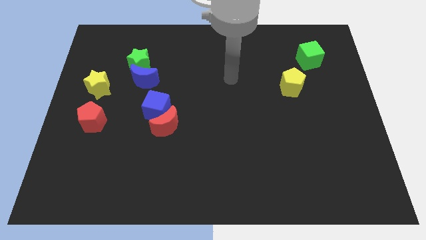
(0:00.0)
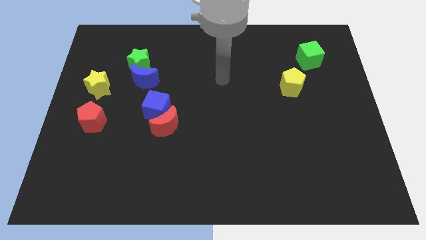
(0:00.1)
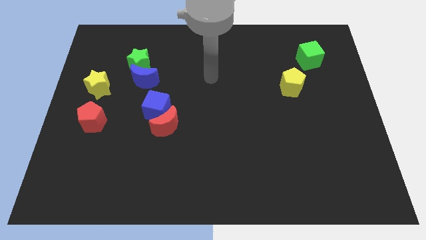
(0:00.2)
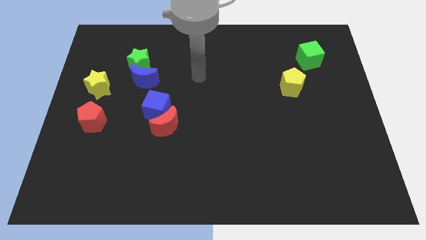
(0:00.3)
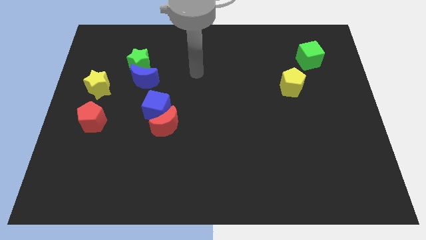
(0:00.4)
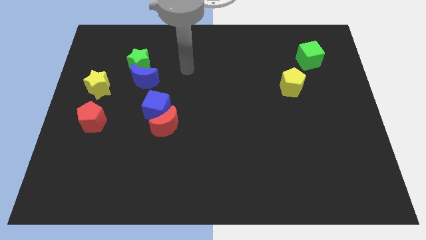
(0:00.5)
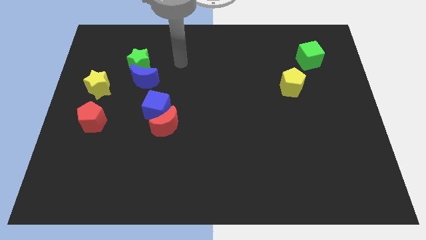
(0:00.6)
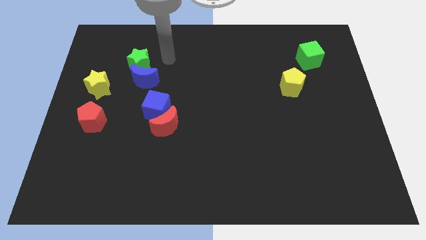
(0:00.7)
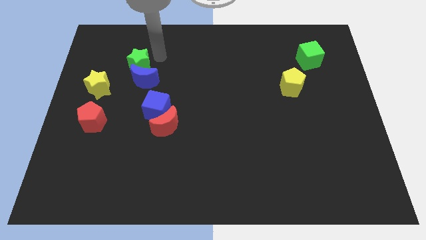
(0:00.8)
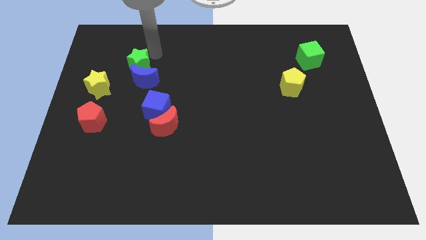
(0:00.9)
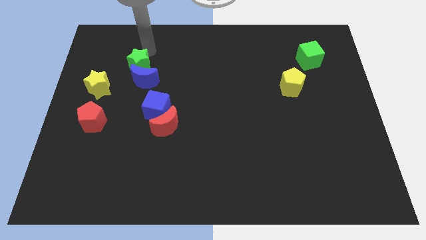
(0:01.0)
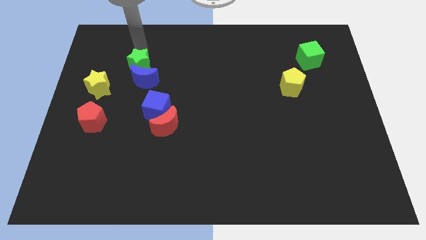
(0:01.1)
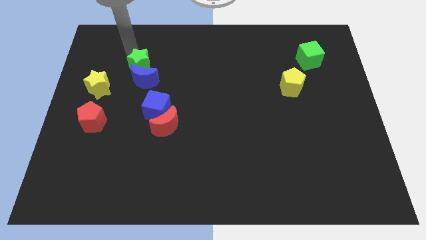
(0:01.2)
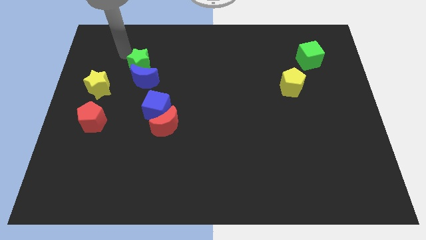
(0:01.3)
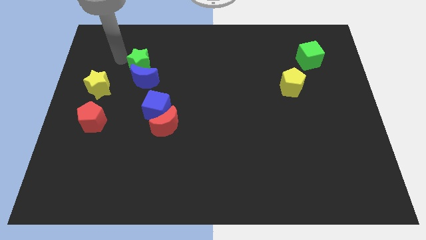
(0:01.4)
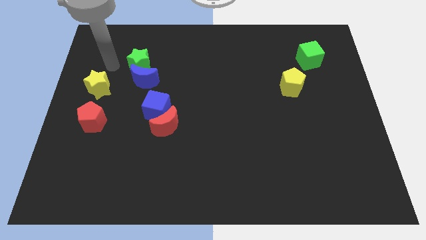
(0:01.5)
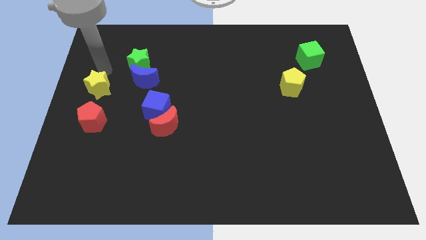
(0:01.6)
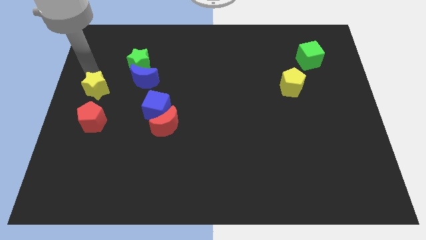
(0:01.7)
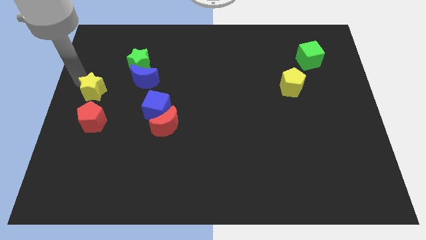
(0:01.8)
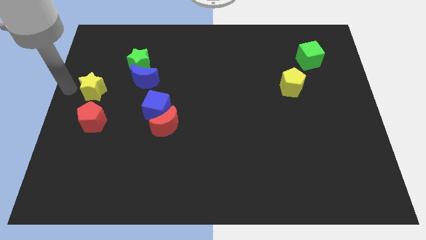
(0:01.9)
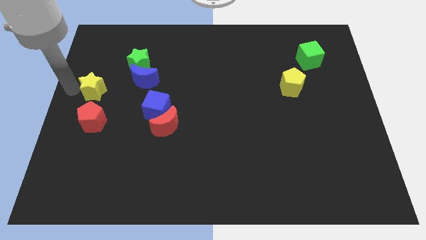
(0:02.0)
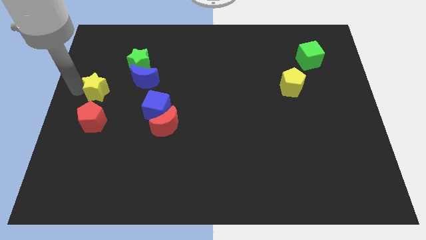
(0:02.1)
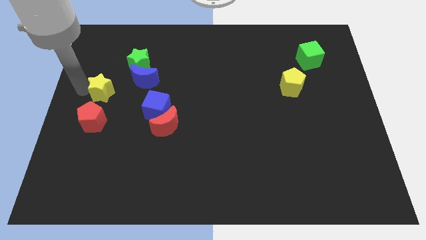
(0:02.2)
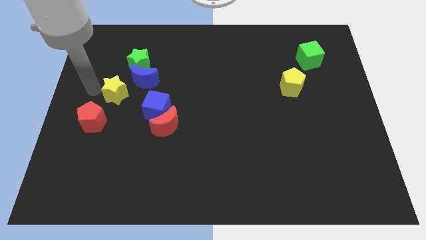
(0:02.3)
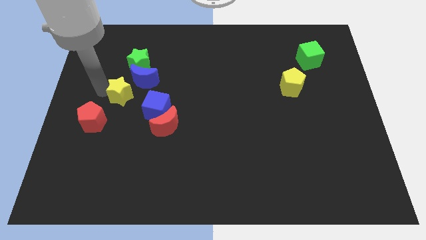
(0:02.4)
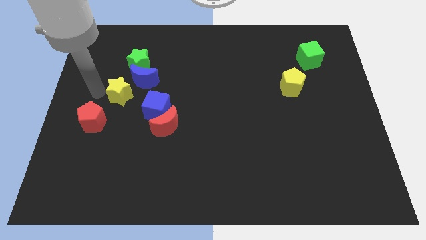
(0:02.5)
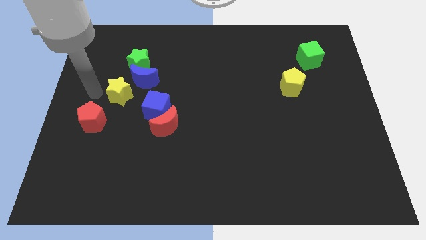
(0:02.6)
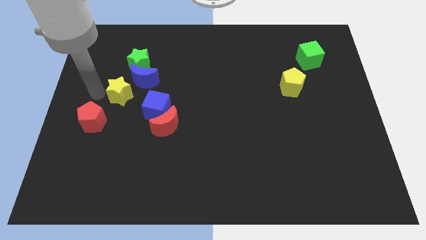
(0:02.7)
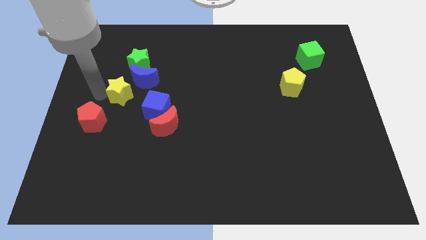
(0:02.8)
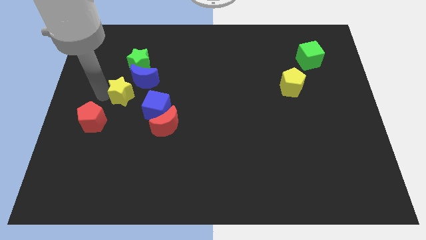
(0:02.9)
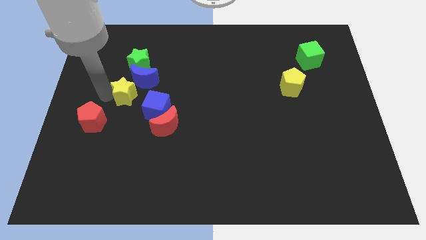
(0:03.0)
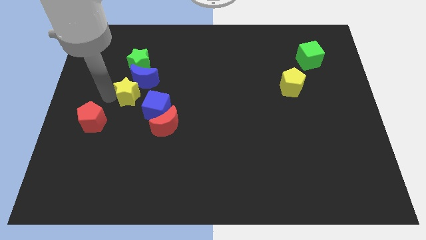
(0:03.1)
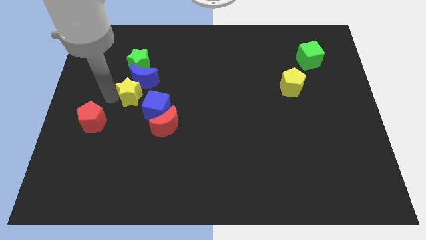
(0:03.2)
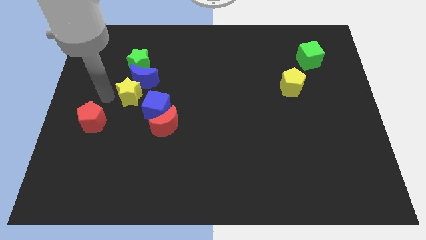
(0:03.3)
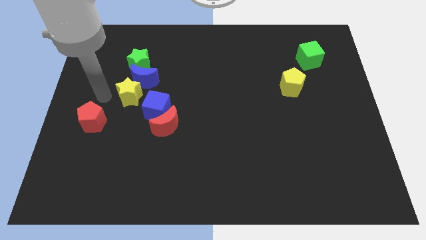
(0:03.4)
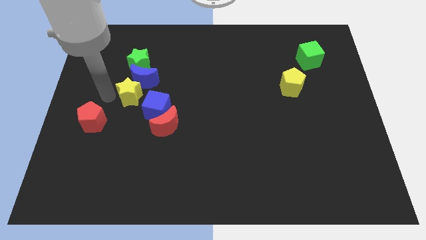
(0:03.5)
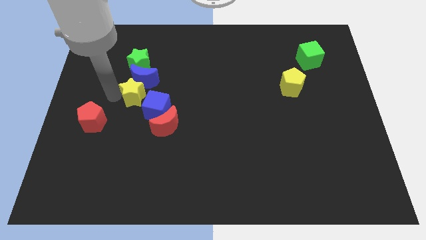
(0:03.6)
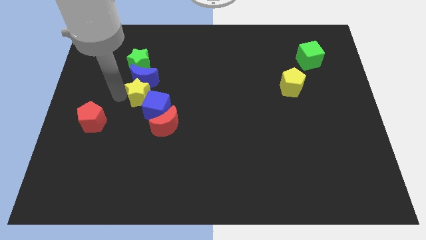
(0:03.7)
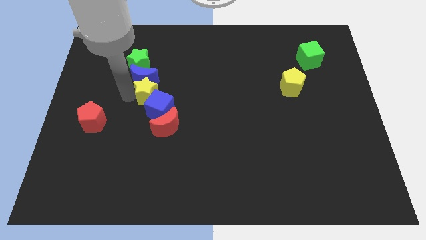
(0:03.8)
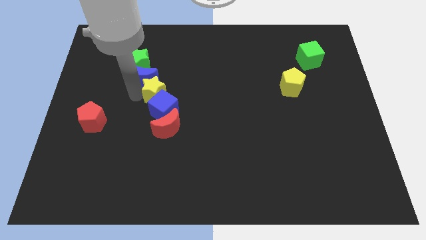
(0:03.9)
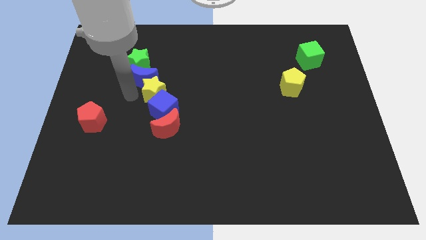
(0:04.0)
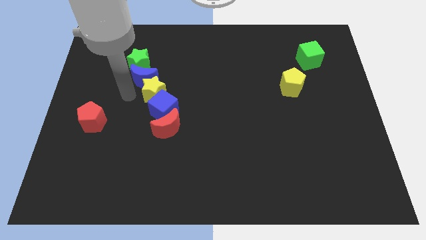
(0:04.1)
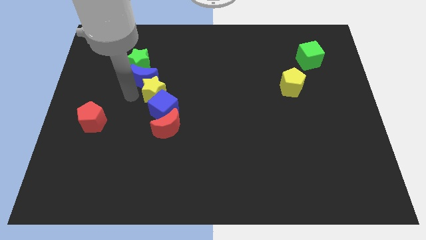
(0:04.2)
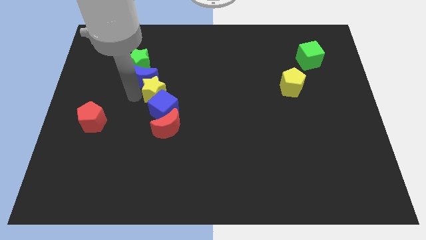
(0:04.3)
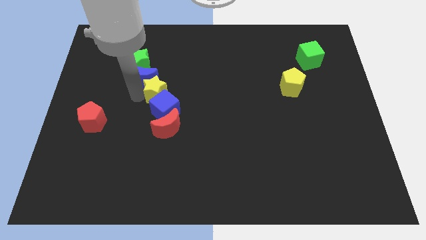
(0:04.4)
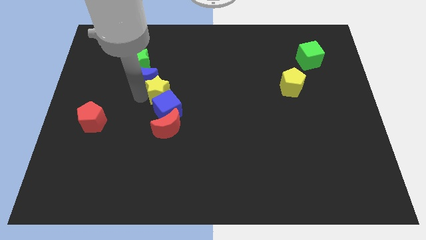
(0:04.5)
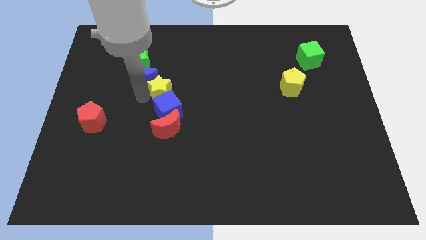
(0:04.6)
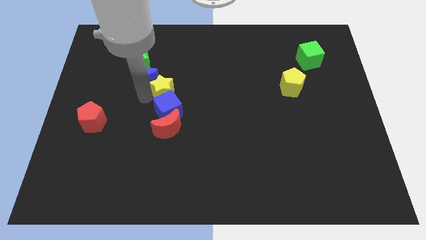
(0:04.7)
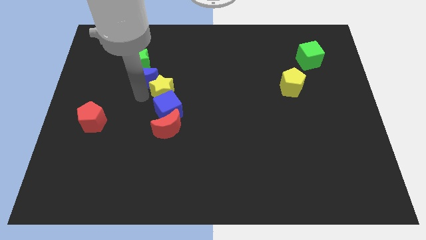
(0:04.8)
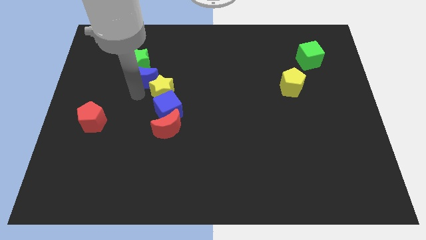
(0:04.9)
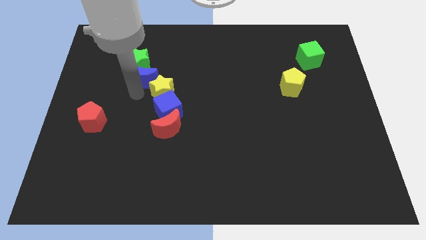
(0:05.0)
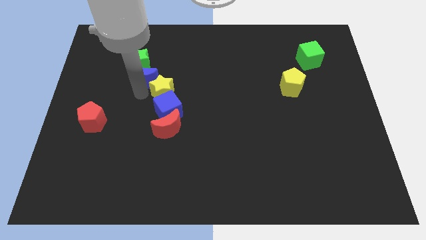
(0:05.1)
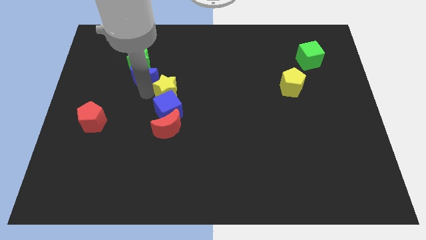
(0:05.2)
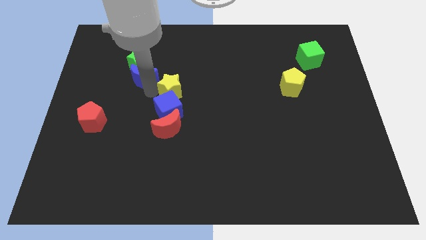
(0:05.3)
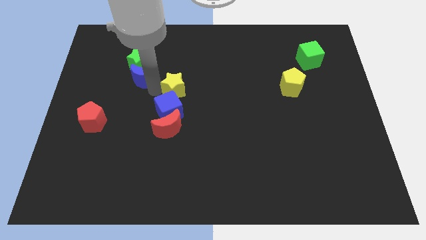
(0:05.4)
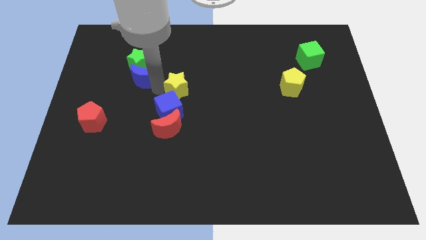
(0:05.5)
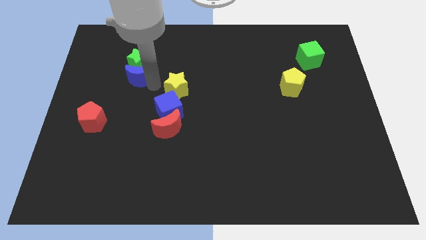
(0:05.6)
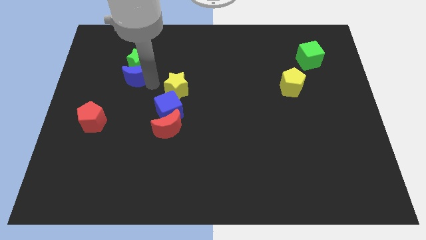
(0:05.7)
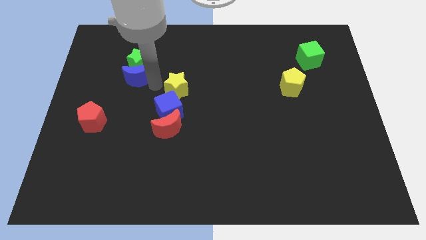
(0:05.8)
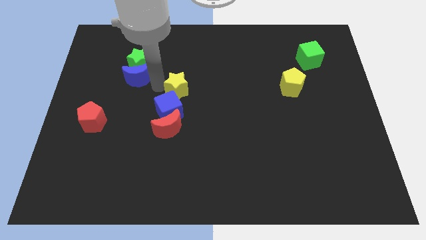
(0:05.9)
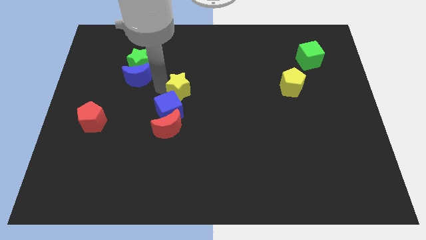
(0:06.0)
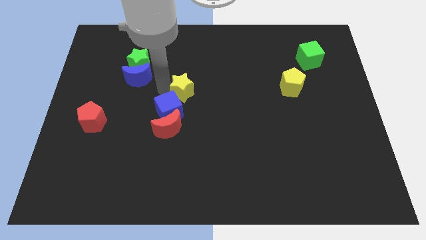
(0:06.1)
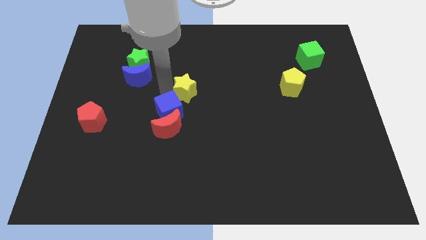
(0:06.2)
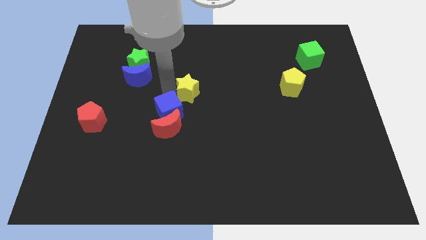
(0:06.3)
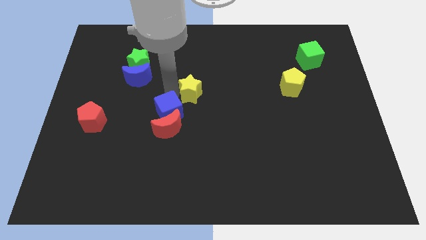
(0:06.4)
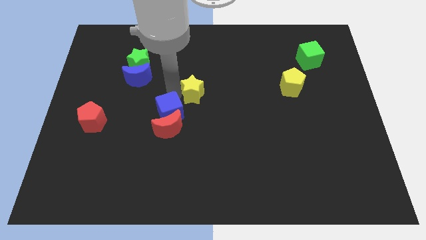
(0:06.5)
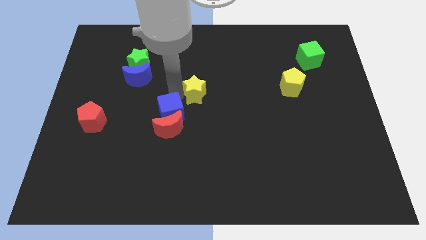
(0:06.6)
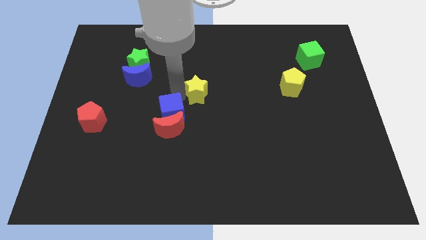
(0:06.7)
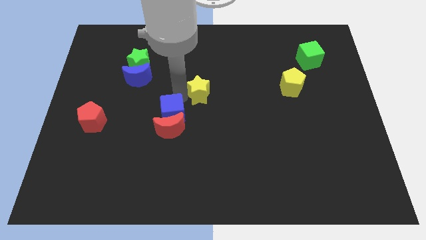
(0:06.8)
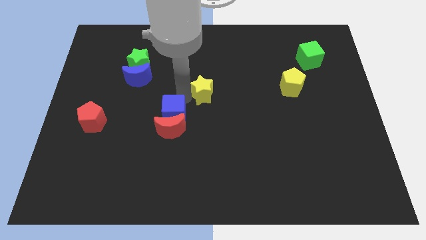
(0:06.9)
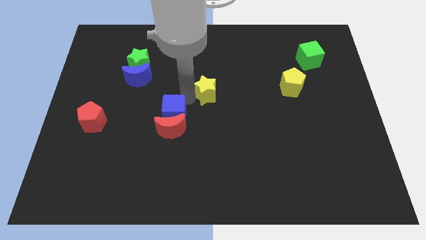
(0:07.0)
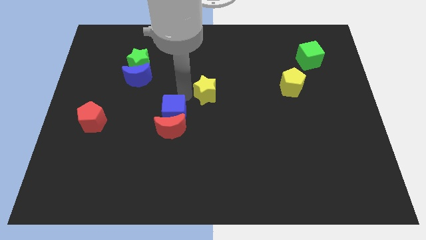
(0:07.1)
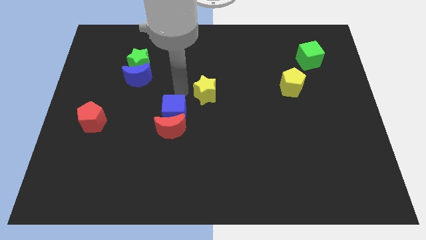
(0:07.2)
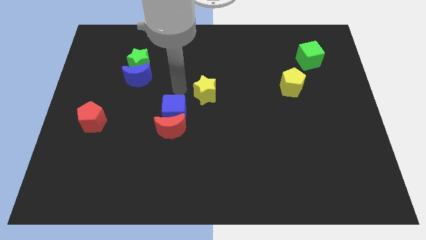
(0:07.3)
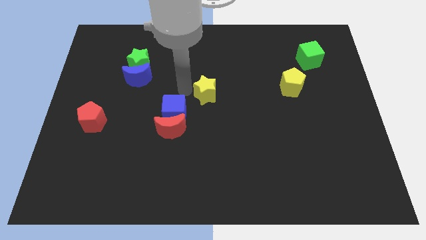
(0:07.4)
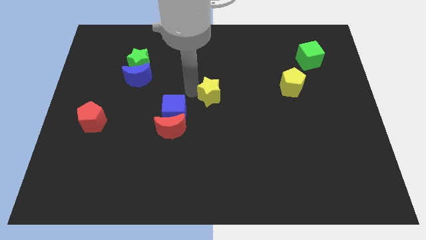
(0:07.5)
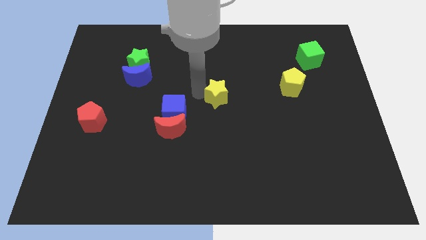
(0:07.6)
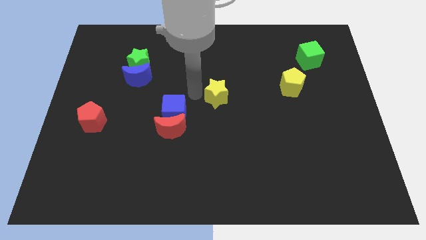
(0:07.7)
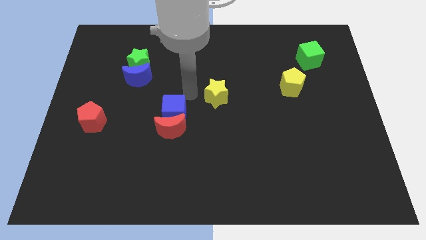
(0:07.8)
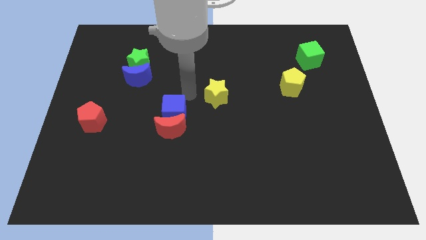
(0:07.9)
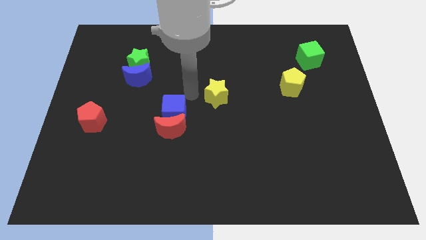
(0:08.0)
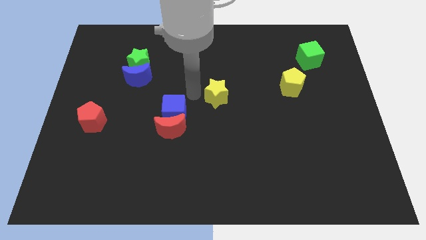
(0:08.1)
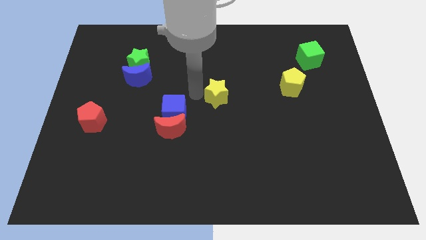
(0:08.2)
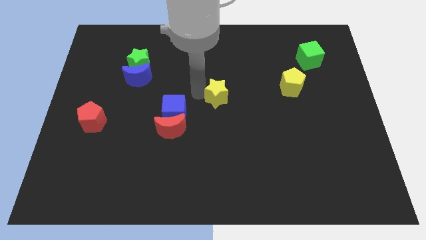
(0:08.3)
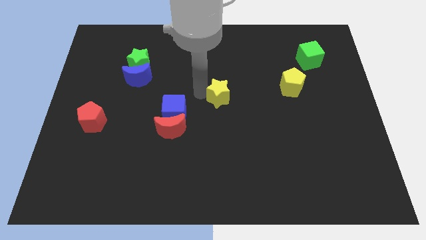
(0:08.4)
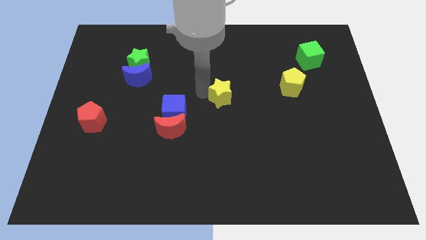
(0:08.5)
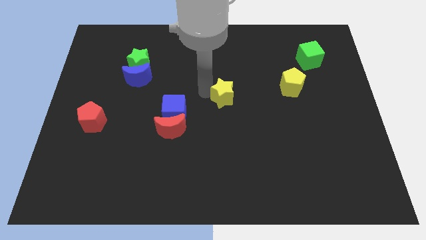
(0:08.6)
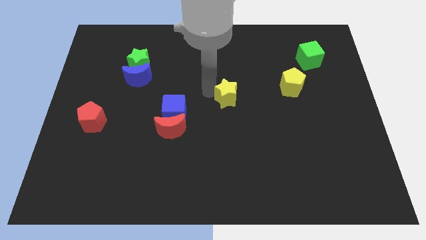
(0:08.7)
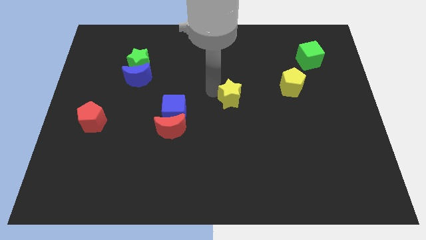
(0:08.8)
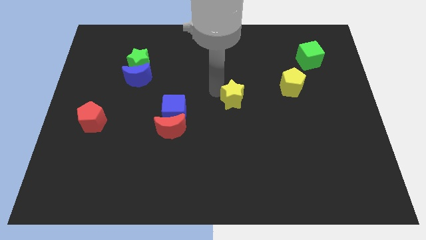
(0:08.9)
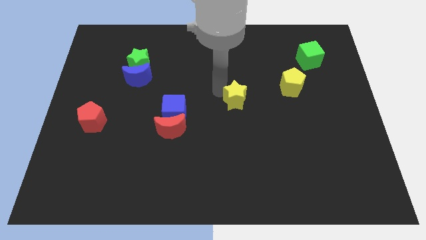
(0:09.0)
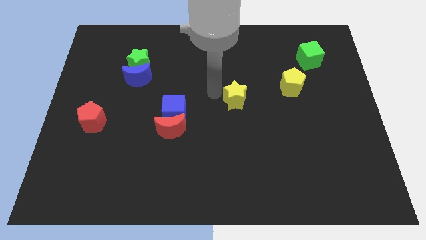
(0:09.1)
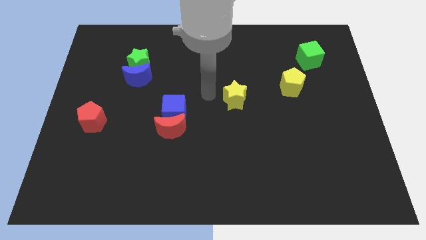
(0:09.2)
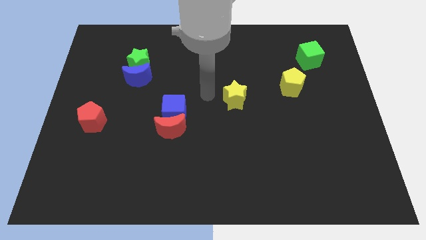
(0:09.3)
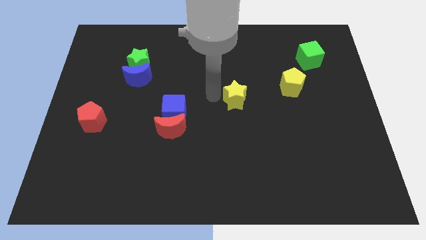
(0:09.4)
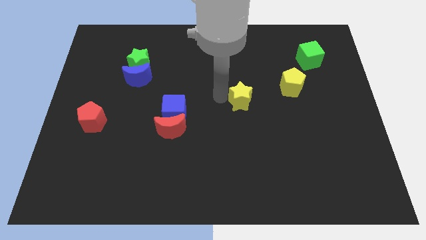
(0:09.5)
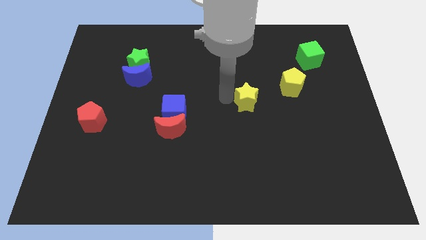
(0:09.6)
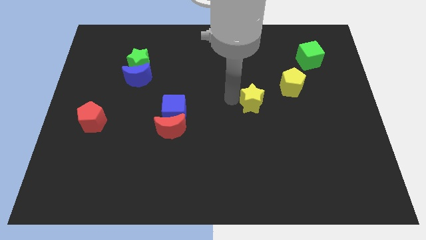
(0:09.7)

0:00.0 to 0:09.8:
push the yellow star diagonally down and to the left of the yellow pentagon
